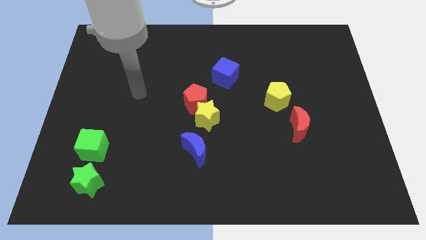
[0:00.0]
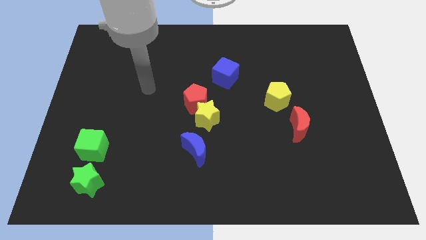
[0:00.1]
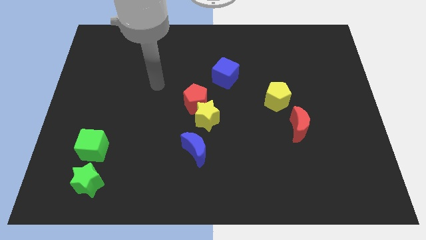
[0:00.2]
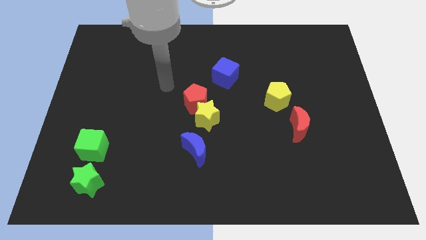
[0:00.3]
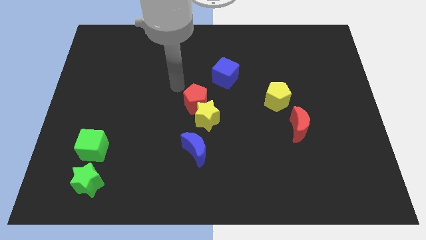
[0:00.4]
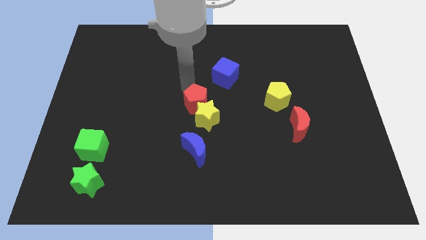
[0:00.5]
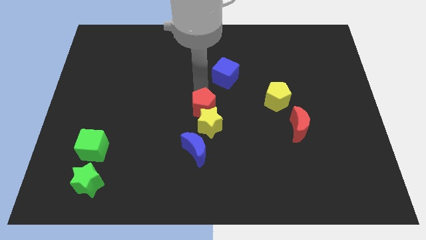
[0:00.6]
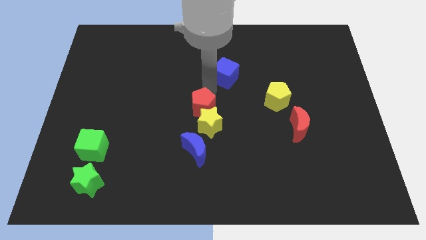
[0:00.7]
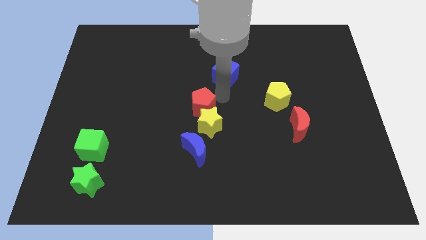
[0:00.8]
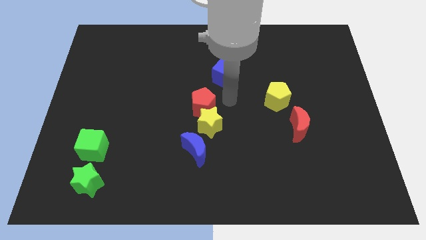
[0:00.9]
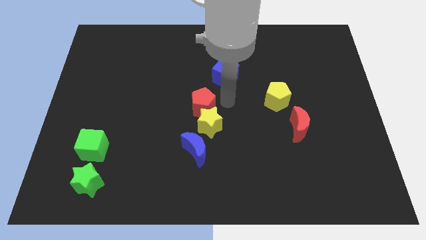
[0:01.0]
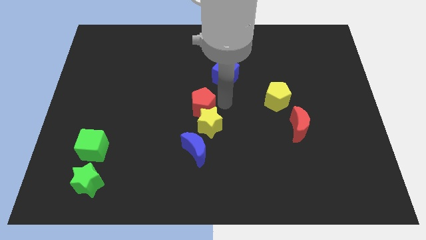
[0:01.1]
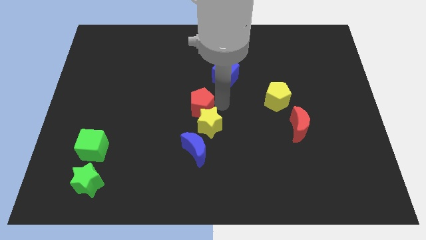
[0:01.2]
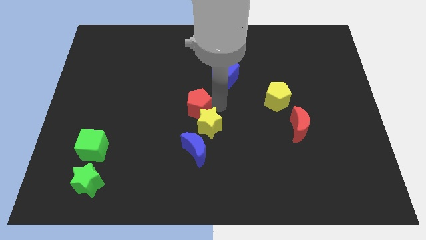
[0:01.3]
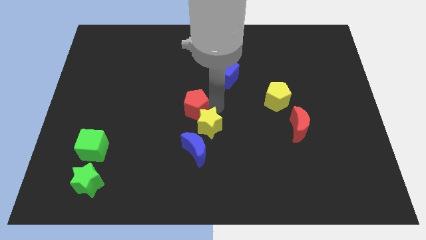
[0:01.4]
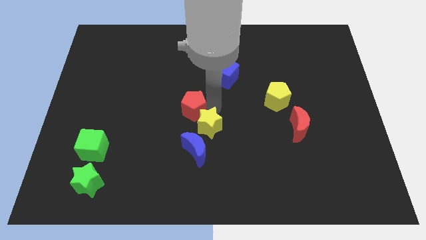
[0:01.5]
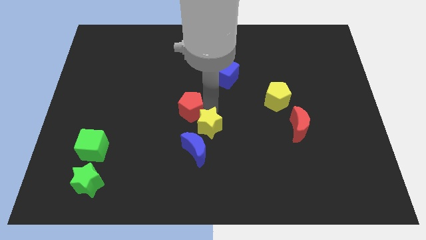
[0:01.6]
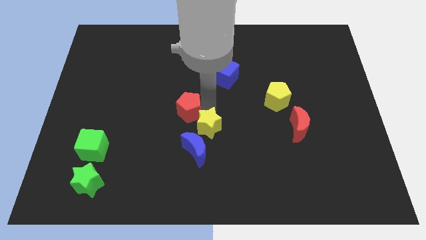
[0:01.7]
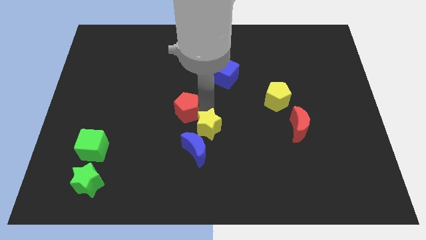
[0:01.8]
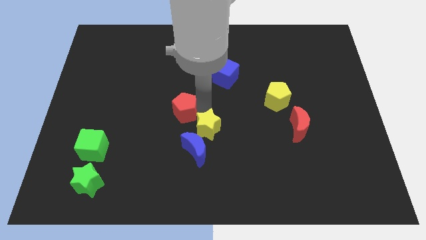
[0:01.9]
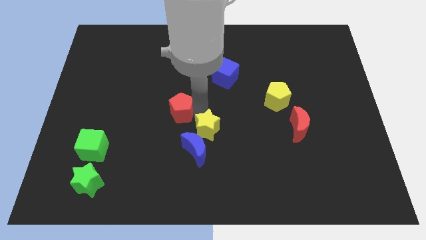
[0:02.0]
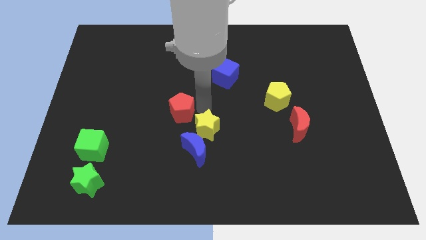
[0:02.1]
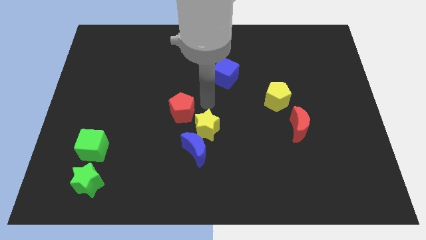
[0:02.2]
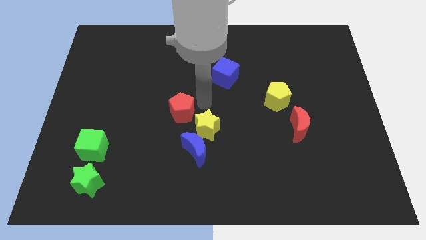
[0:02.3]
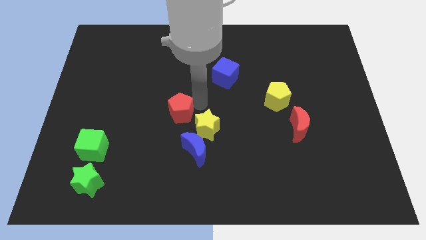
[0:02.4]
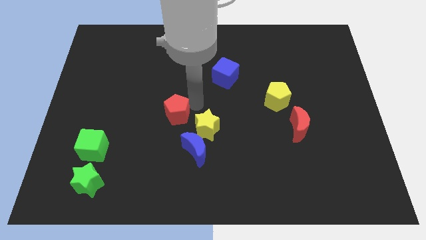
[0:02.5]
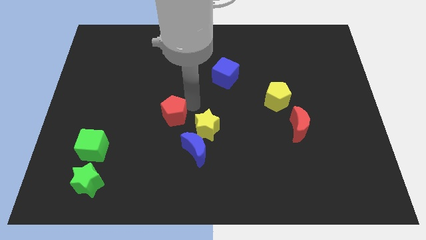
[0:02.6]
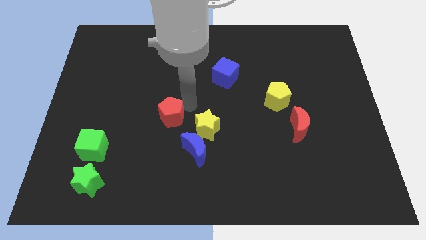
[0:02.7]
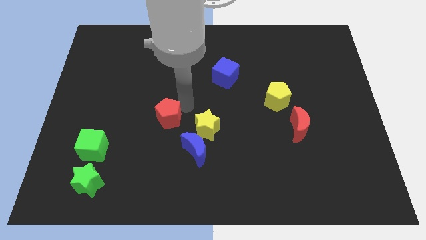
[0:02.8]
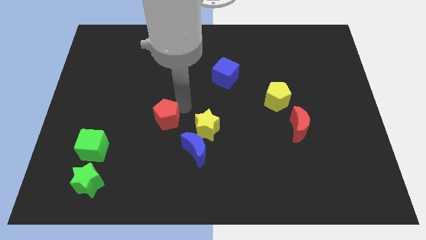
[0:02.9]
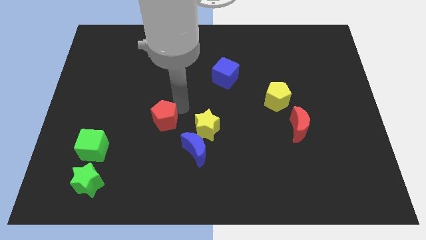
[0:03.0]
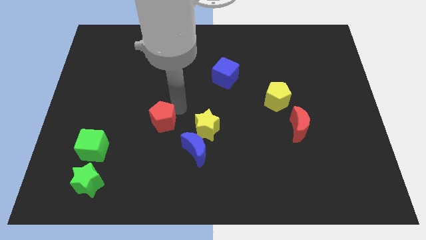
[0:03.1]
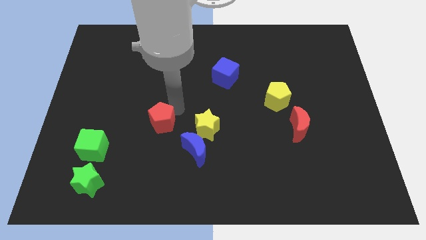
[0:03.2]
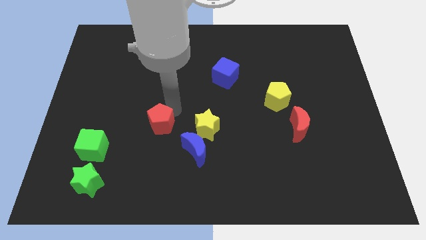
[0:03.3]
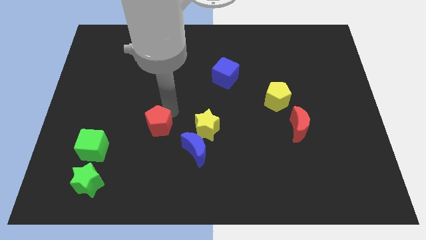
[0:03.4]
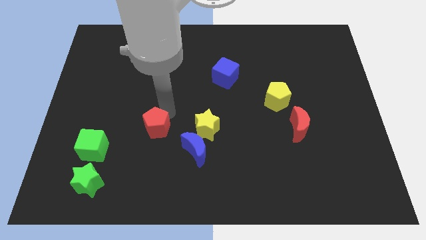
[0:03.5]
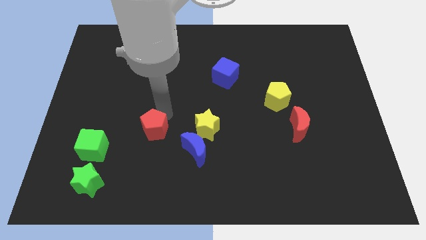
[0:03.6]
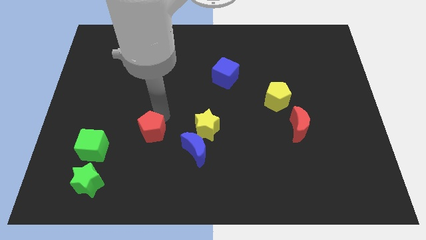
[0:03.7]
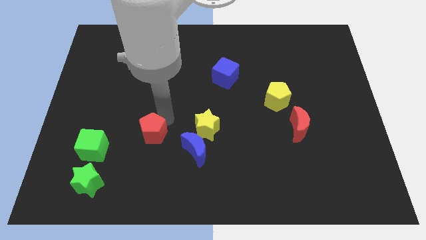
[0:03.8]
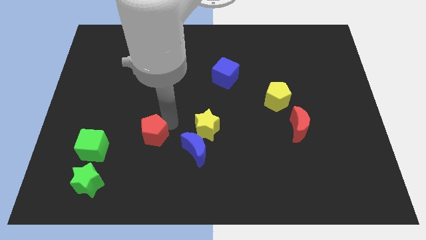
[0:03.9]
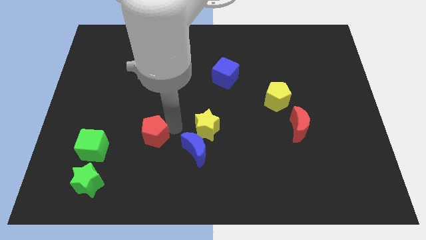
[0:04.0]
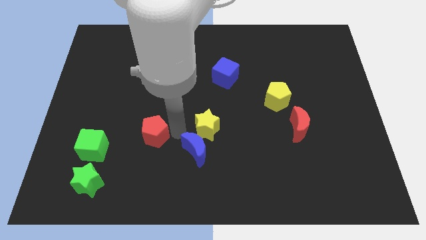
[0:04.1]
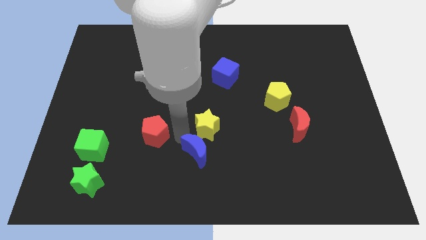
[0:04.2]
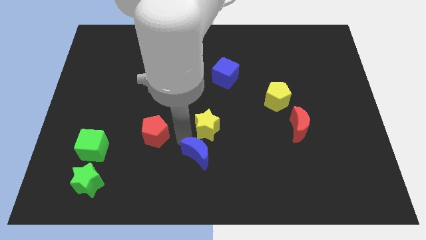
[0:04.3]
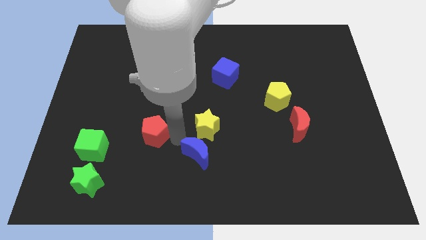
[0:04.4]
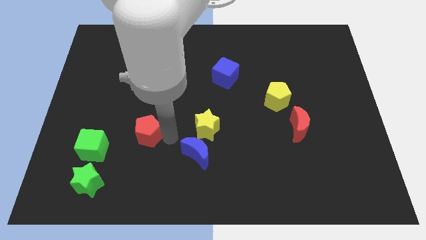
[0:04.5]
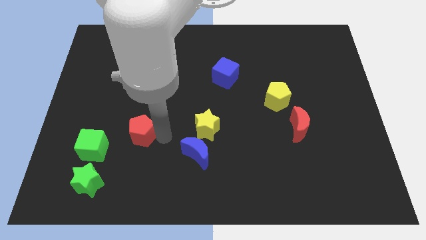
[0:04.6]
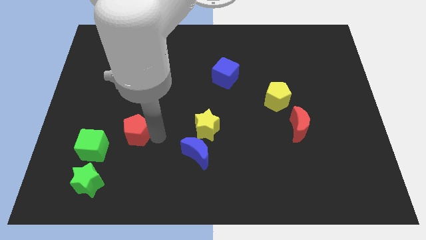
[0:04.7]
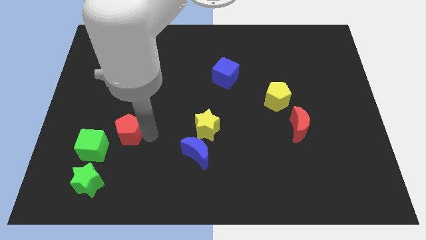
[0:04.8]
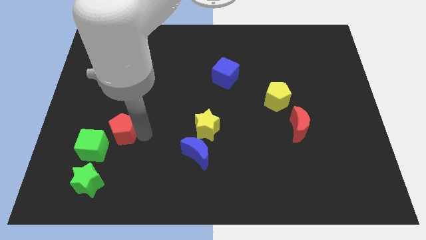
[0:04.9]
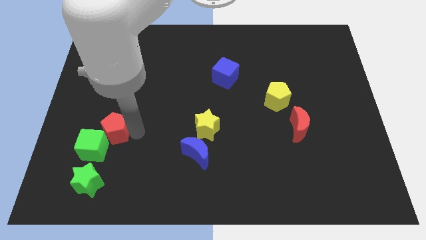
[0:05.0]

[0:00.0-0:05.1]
put the red pentagon next to the green cube

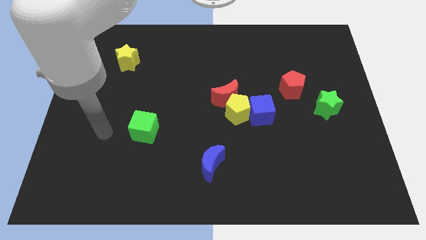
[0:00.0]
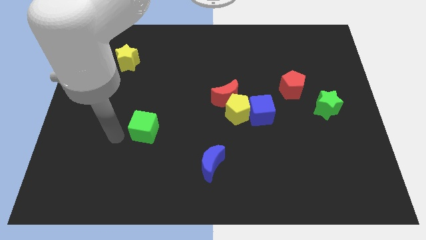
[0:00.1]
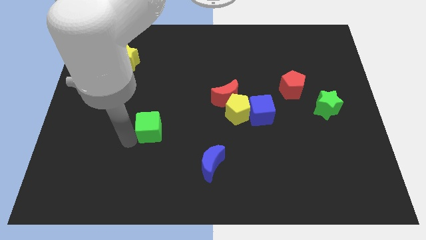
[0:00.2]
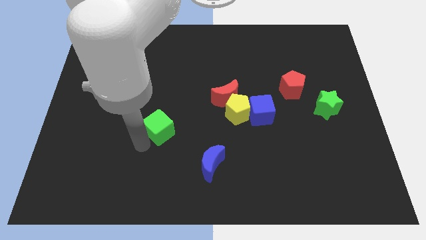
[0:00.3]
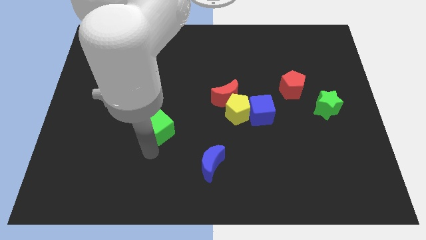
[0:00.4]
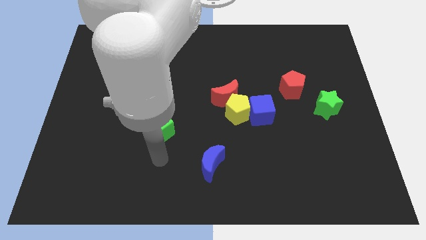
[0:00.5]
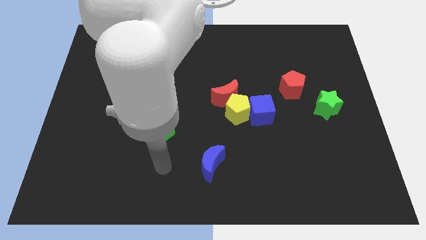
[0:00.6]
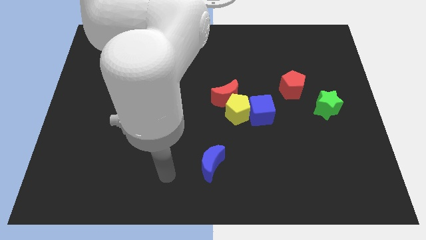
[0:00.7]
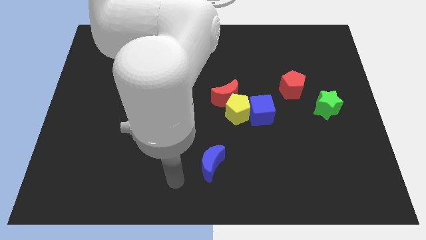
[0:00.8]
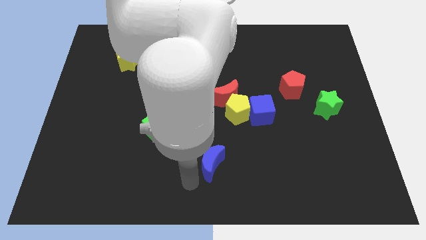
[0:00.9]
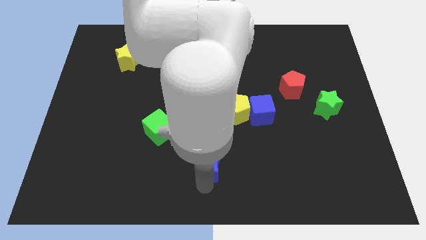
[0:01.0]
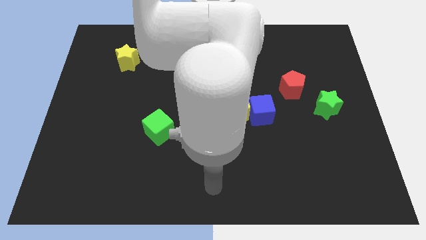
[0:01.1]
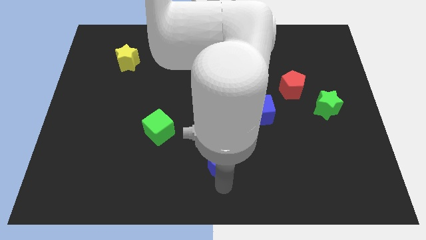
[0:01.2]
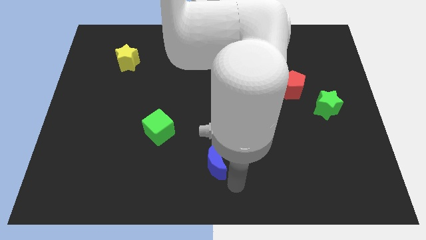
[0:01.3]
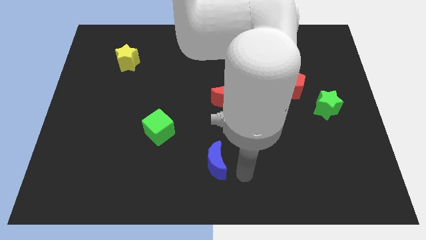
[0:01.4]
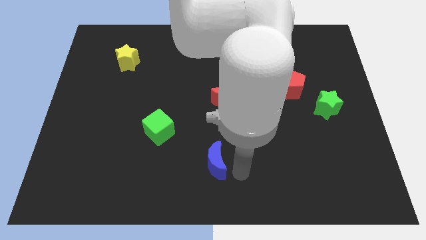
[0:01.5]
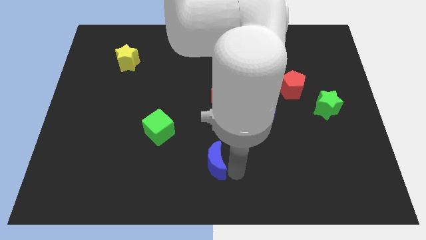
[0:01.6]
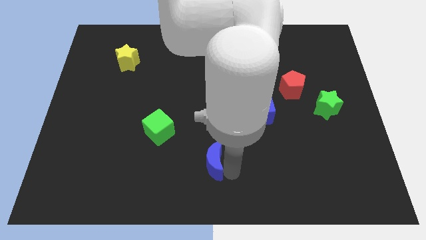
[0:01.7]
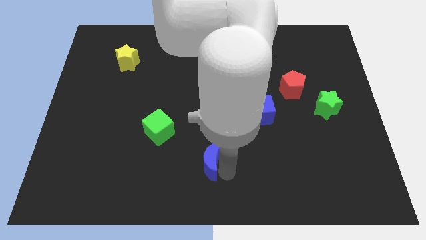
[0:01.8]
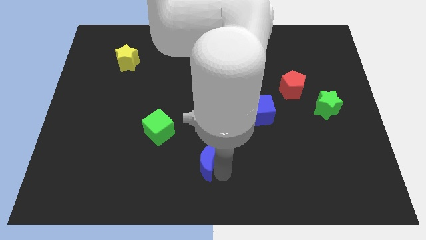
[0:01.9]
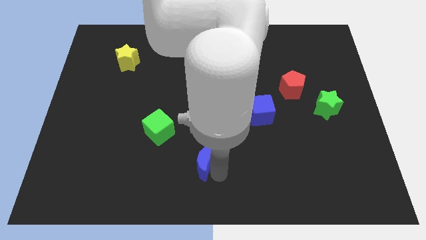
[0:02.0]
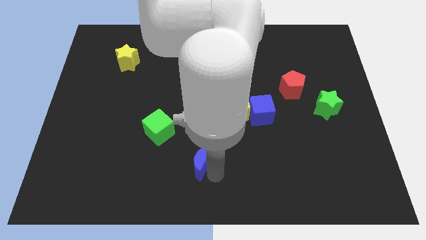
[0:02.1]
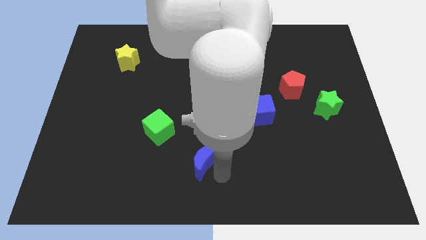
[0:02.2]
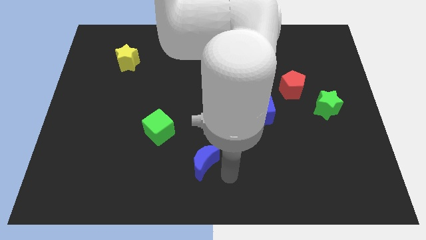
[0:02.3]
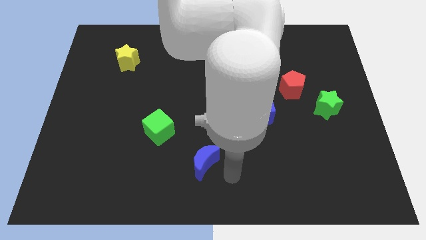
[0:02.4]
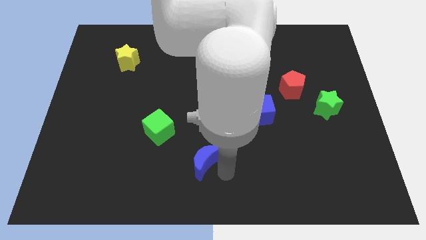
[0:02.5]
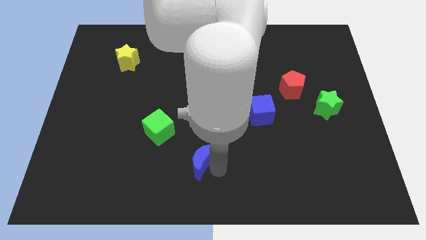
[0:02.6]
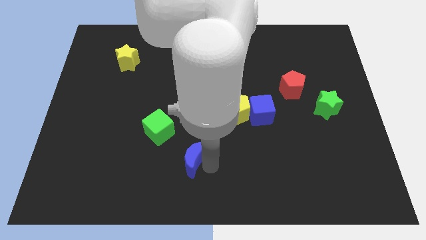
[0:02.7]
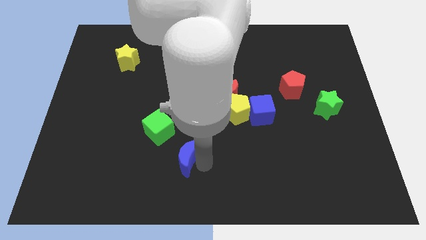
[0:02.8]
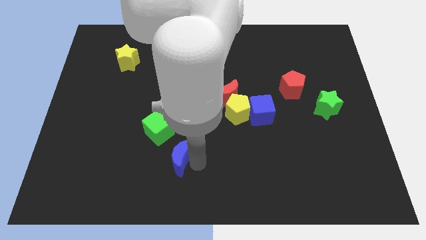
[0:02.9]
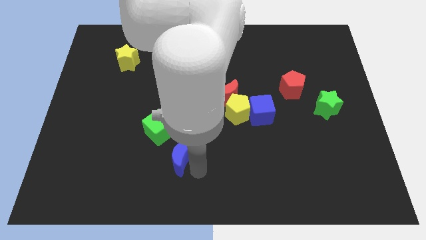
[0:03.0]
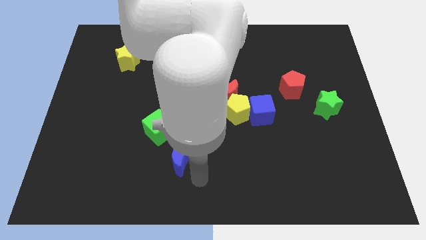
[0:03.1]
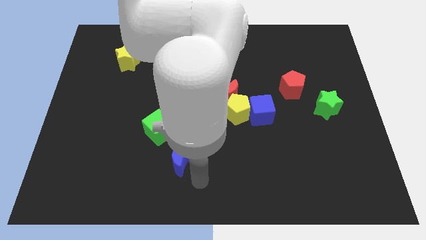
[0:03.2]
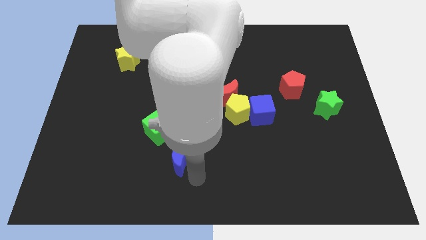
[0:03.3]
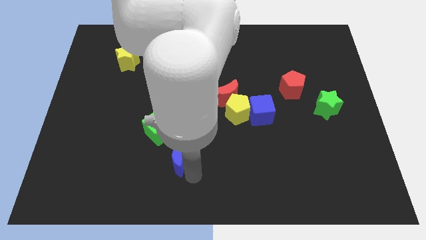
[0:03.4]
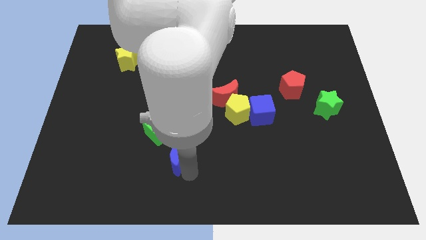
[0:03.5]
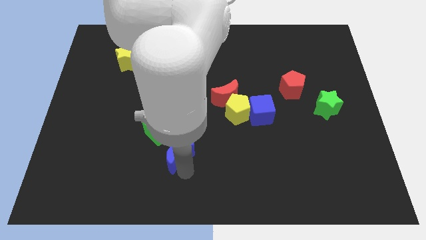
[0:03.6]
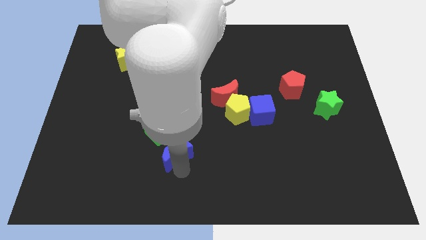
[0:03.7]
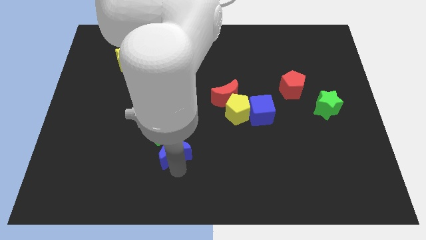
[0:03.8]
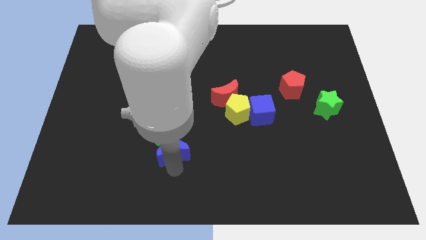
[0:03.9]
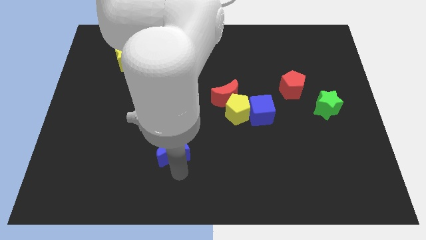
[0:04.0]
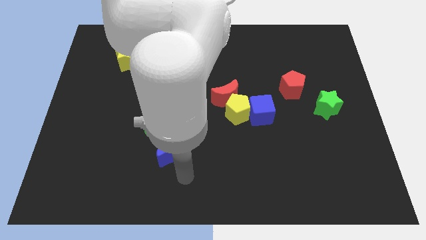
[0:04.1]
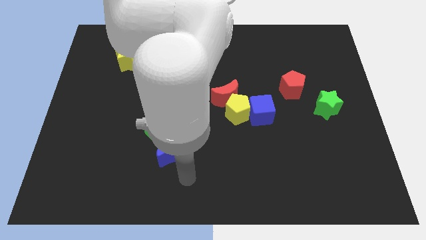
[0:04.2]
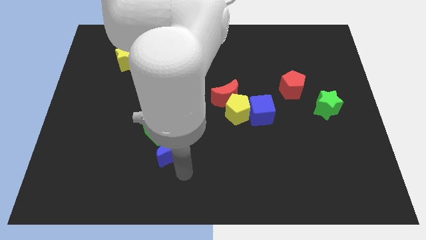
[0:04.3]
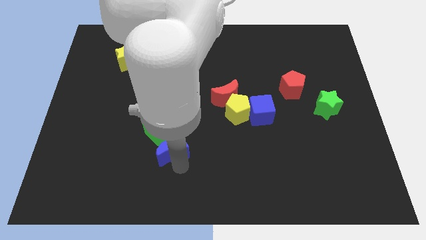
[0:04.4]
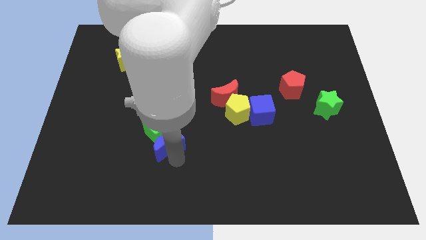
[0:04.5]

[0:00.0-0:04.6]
move the blue moon next to the green cube
